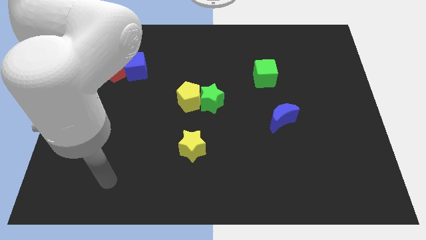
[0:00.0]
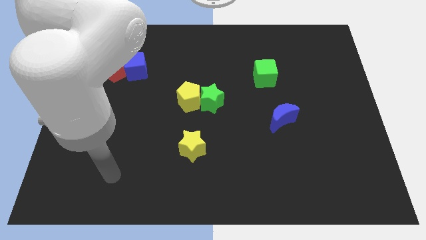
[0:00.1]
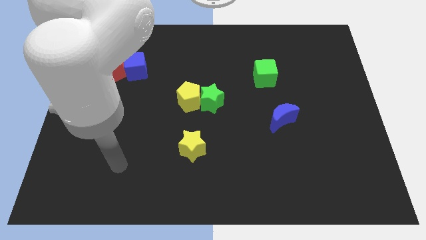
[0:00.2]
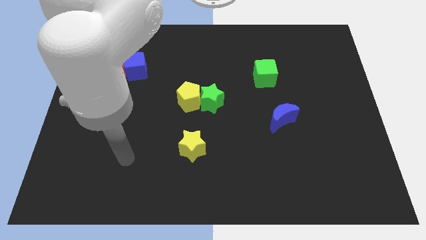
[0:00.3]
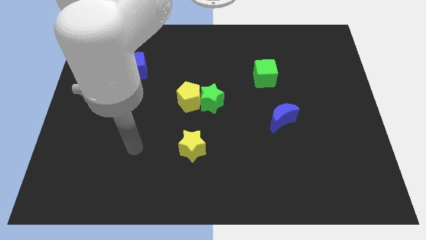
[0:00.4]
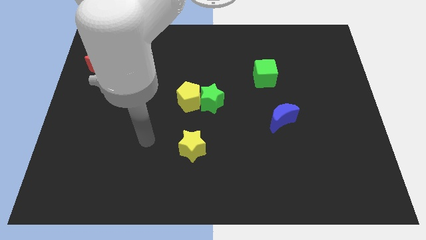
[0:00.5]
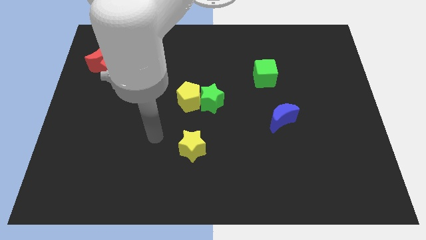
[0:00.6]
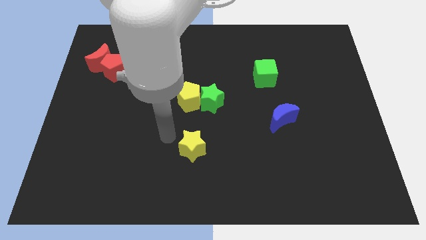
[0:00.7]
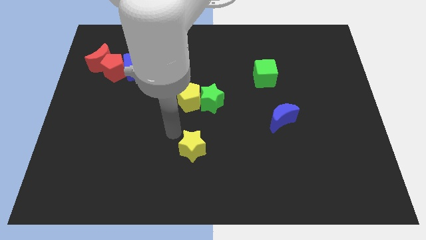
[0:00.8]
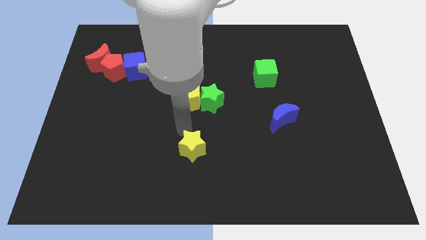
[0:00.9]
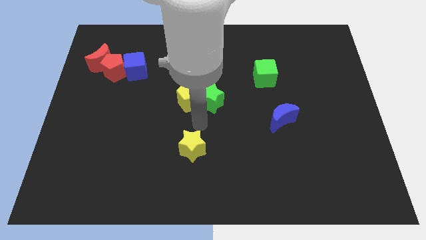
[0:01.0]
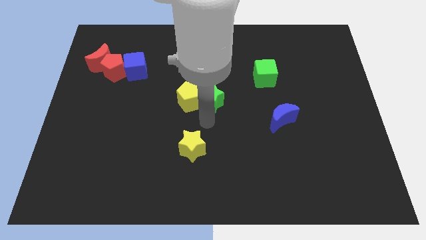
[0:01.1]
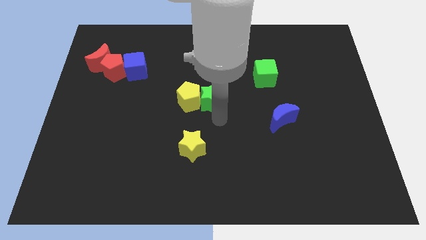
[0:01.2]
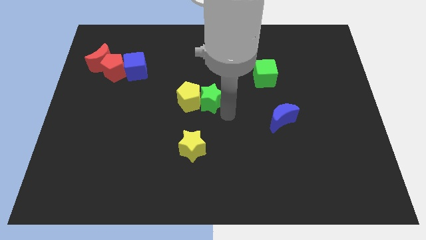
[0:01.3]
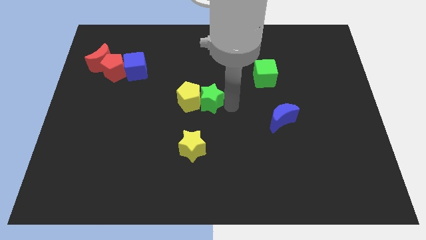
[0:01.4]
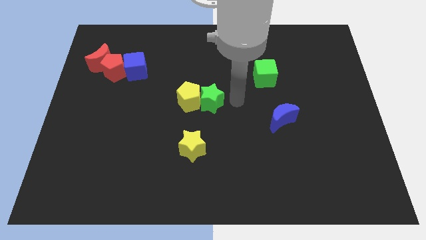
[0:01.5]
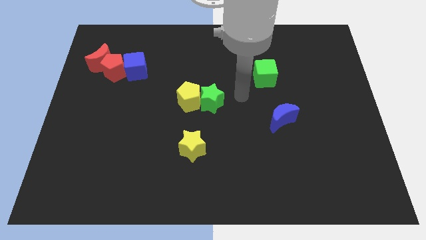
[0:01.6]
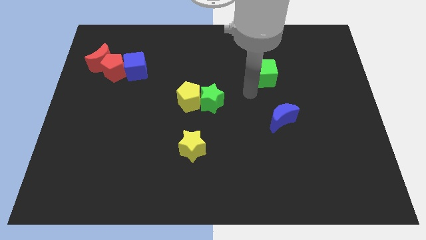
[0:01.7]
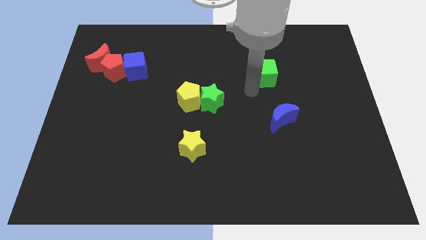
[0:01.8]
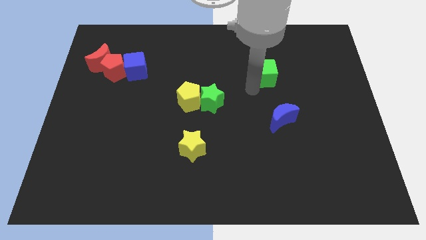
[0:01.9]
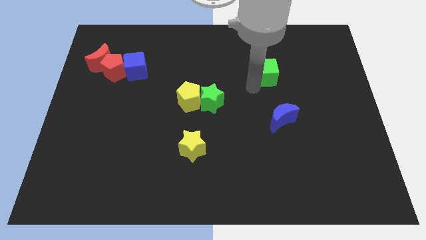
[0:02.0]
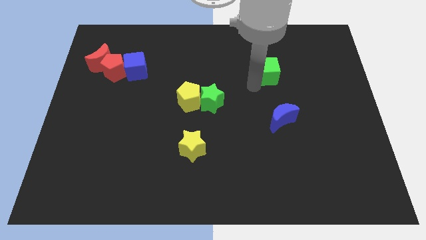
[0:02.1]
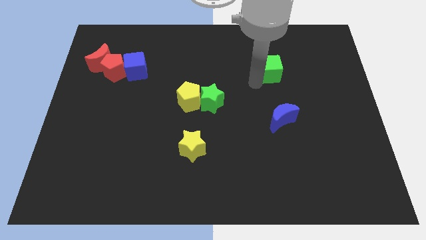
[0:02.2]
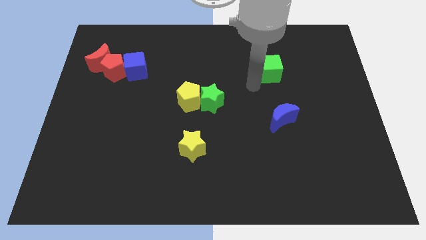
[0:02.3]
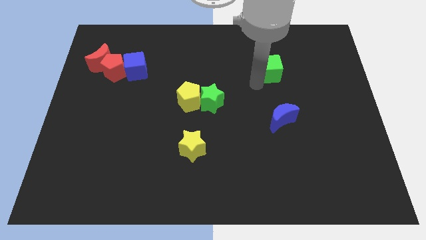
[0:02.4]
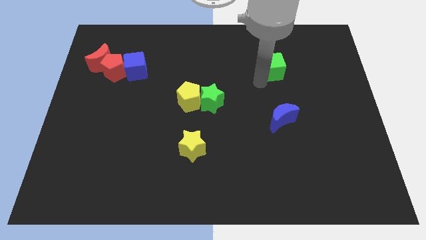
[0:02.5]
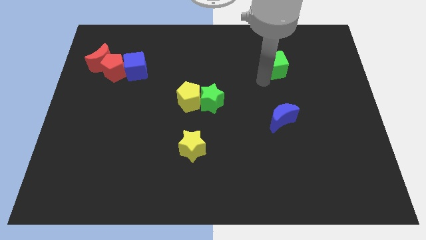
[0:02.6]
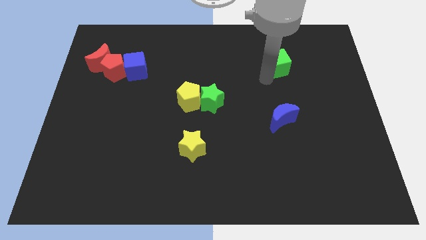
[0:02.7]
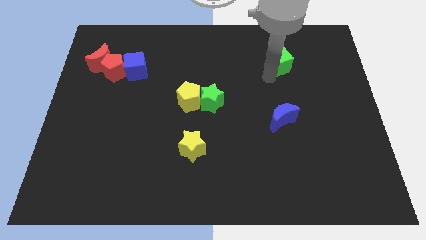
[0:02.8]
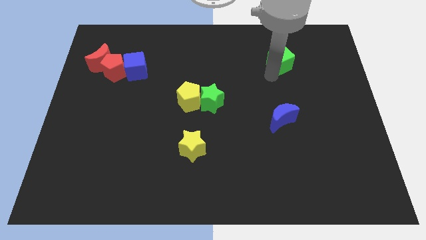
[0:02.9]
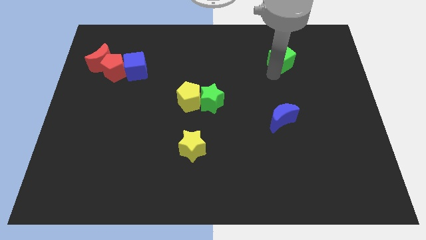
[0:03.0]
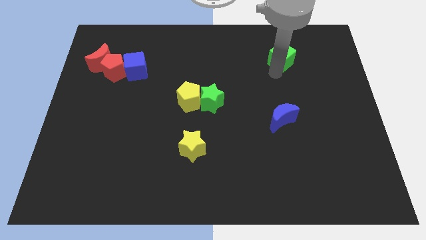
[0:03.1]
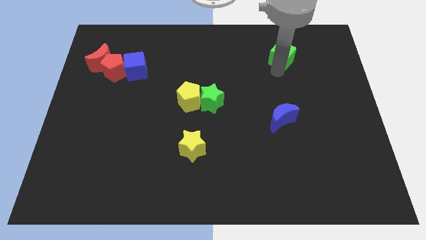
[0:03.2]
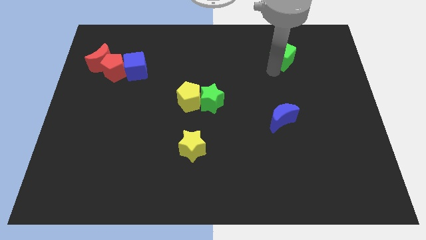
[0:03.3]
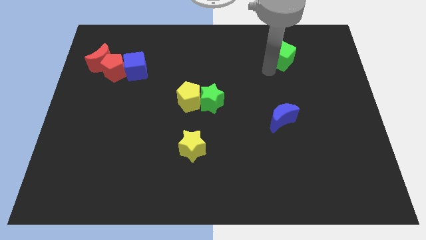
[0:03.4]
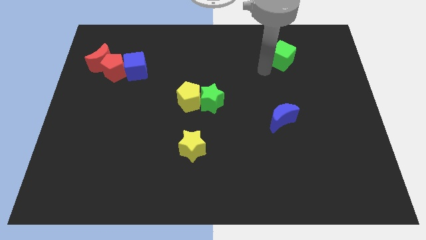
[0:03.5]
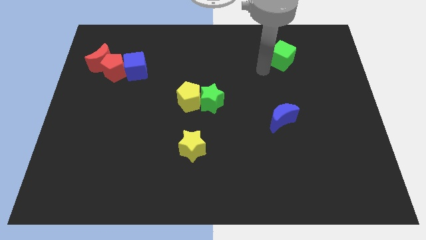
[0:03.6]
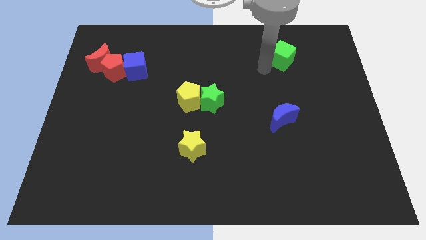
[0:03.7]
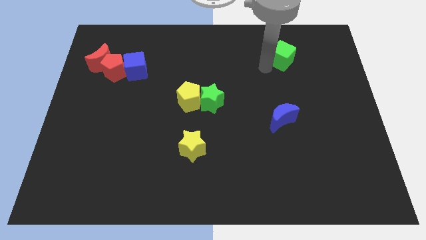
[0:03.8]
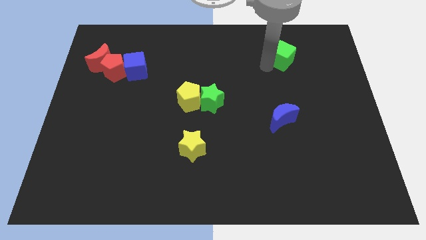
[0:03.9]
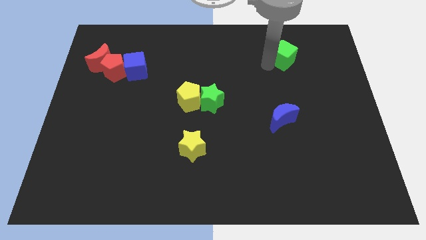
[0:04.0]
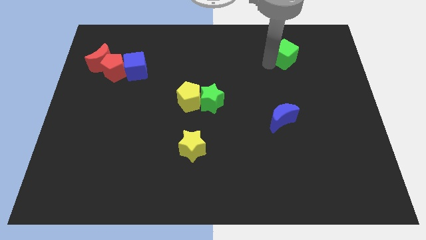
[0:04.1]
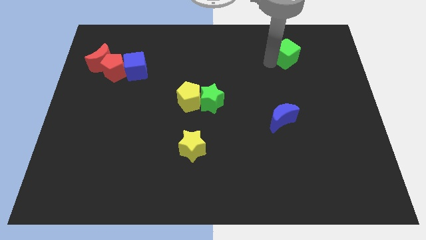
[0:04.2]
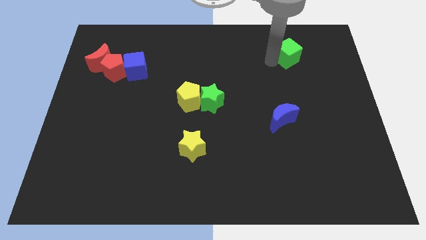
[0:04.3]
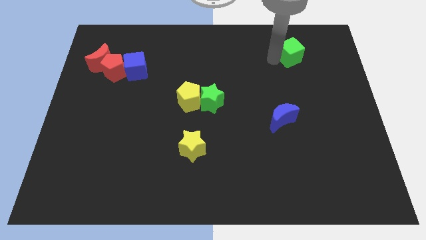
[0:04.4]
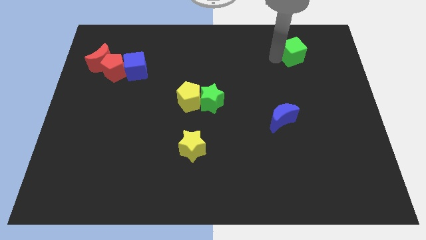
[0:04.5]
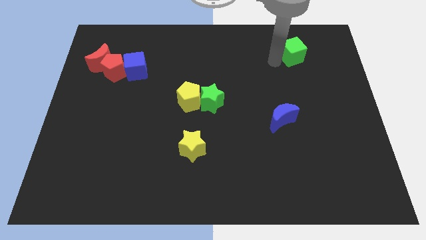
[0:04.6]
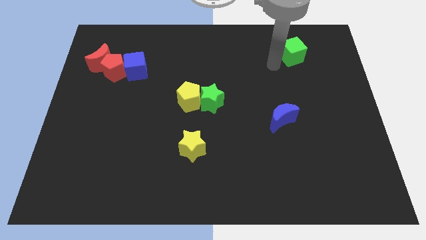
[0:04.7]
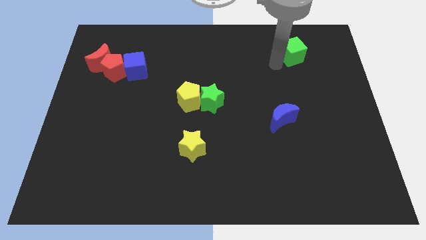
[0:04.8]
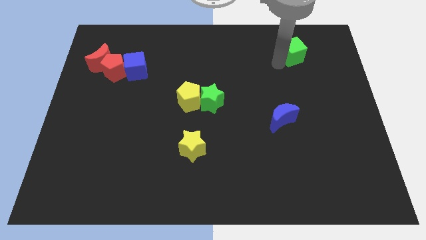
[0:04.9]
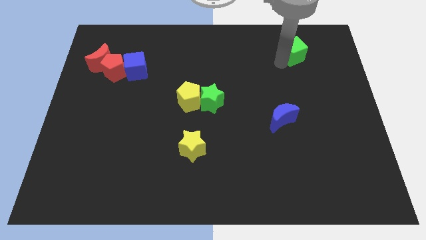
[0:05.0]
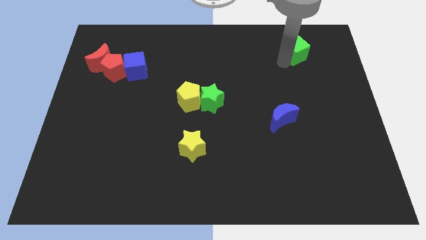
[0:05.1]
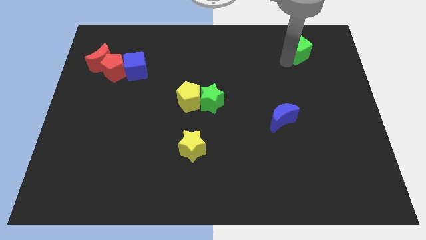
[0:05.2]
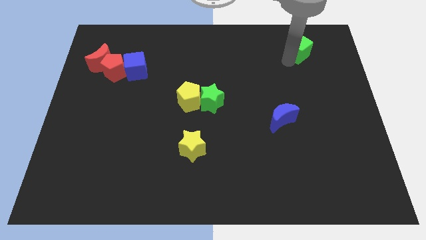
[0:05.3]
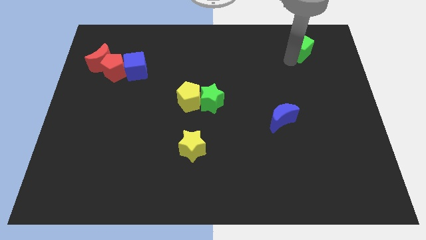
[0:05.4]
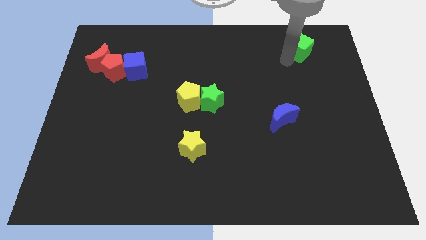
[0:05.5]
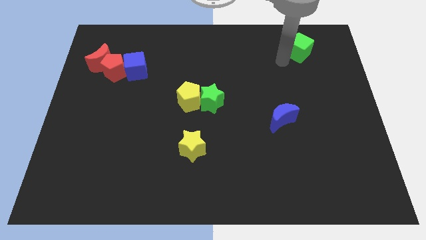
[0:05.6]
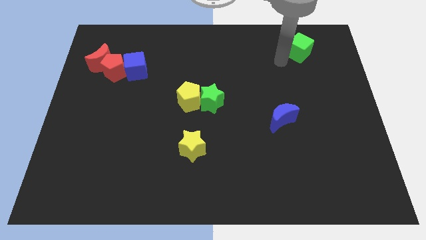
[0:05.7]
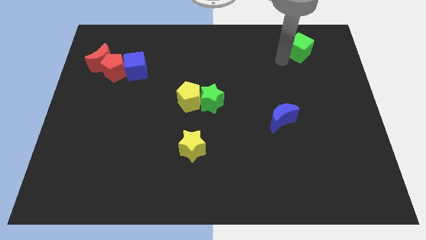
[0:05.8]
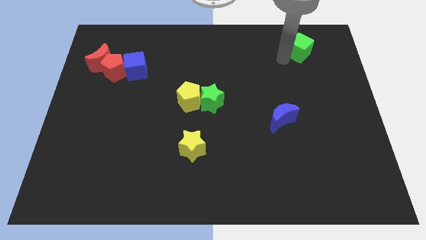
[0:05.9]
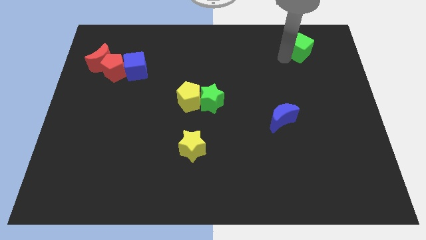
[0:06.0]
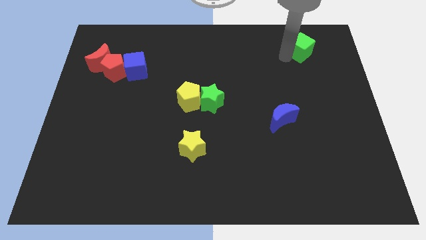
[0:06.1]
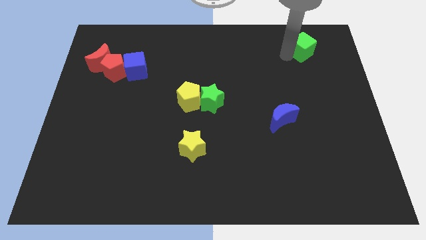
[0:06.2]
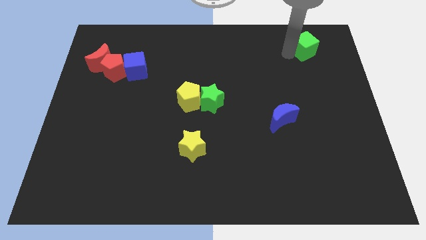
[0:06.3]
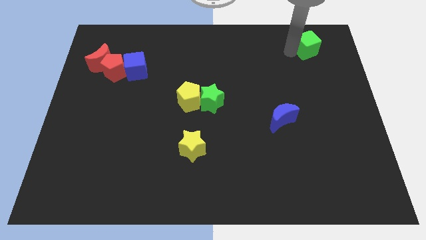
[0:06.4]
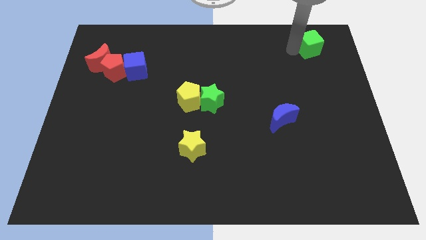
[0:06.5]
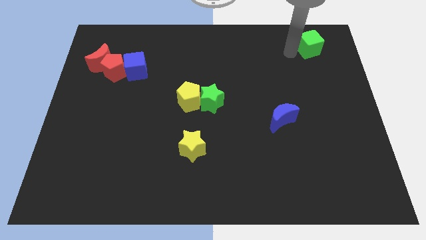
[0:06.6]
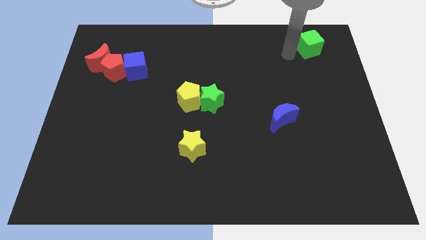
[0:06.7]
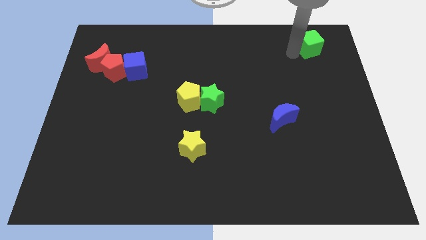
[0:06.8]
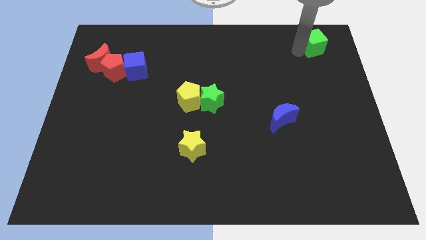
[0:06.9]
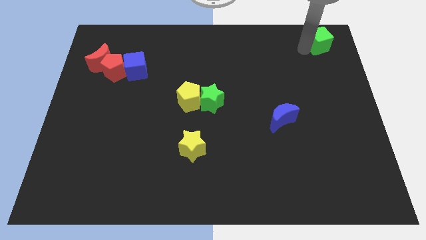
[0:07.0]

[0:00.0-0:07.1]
put the green cube to the top right corner

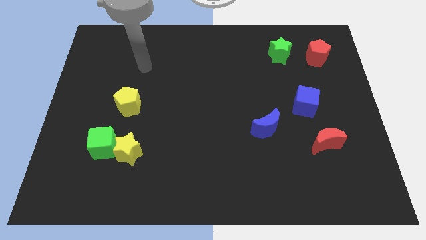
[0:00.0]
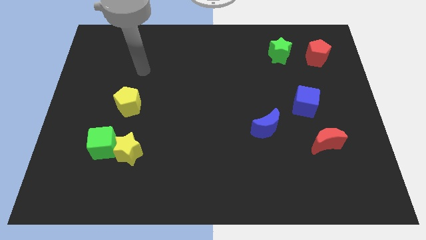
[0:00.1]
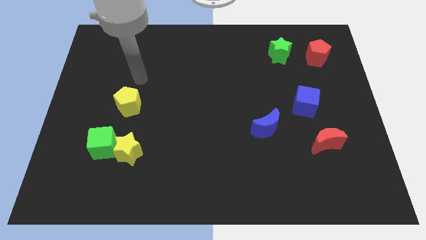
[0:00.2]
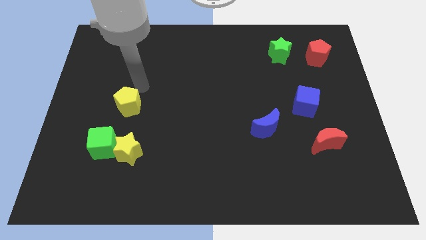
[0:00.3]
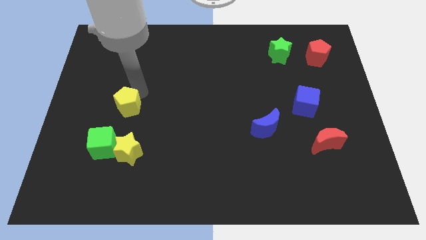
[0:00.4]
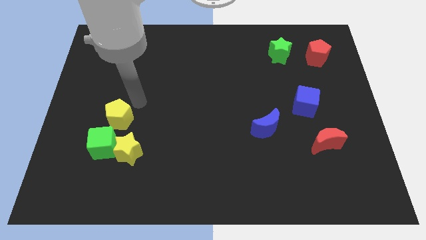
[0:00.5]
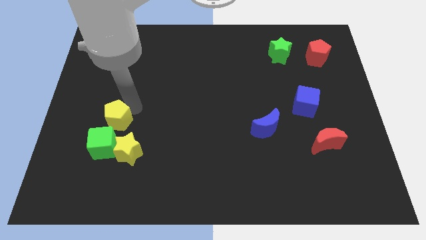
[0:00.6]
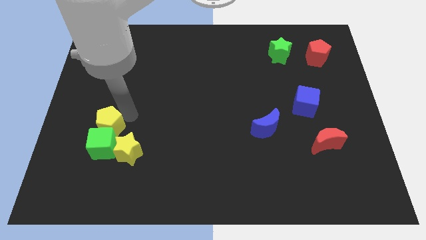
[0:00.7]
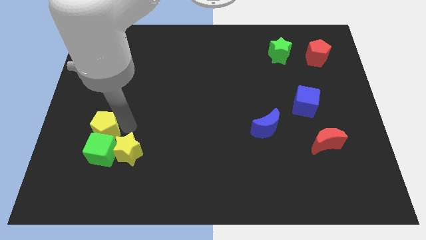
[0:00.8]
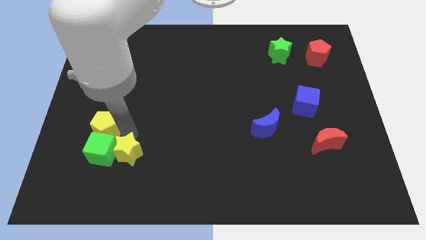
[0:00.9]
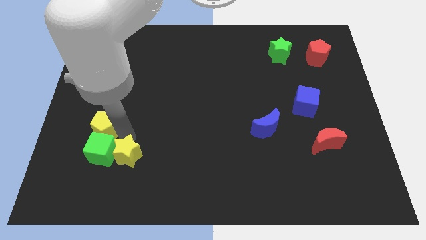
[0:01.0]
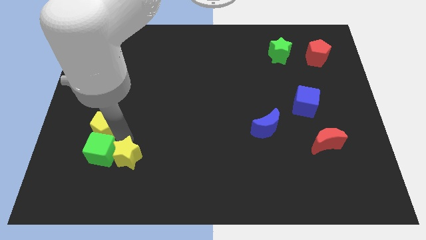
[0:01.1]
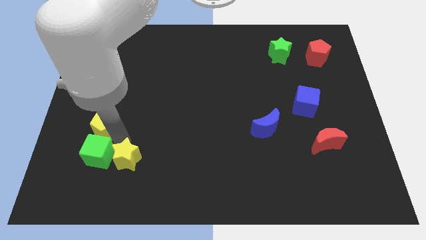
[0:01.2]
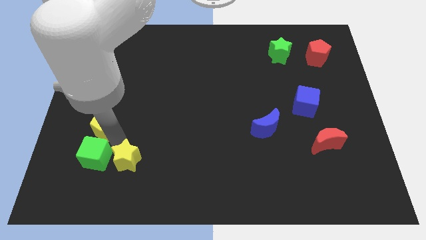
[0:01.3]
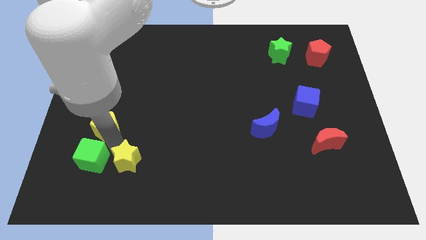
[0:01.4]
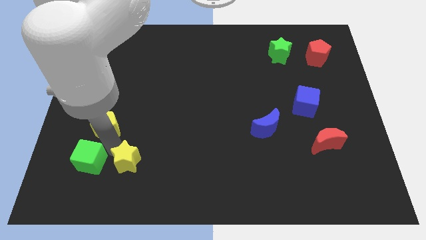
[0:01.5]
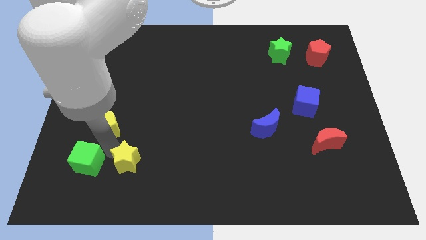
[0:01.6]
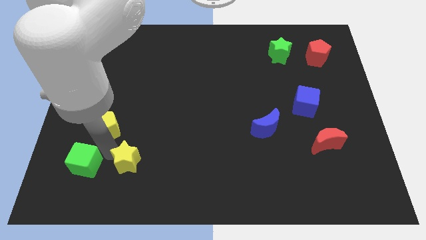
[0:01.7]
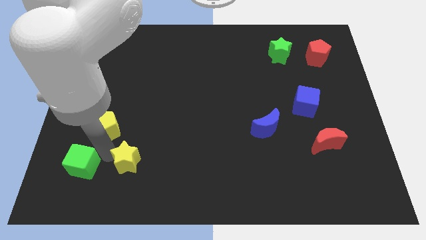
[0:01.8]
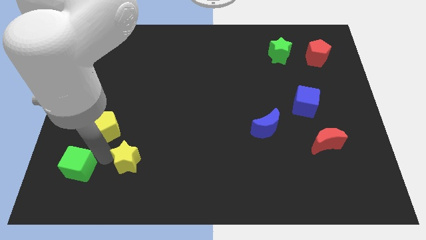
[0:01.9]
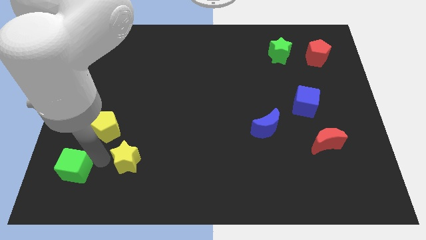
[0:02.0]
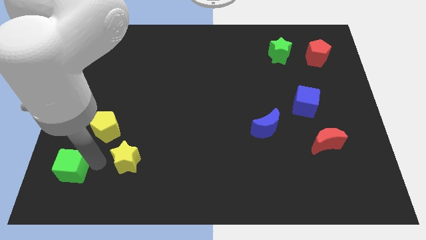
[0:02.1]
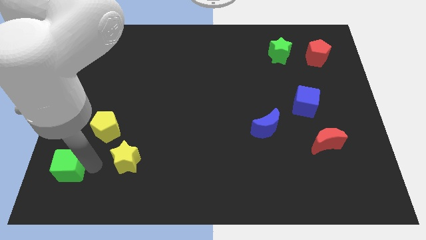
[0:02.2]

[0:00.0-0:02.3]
move the green cube to the bottom left
